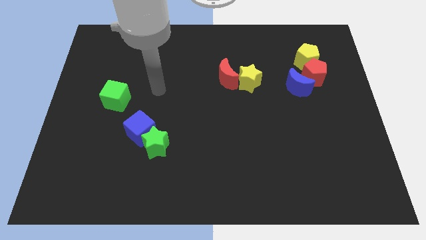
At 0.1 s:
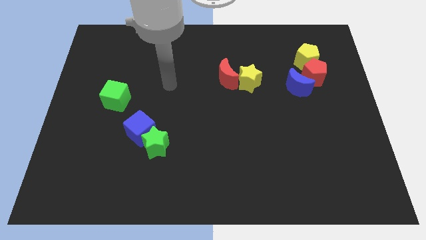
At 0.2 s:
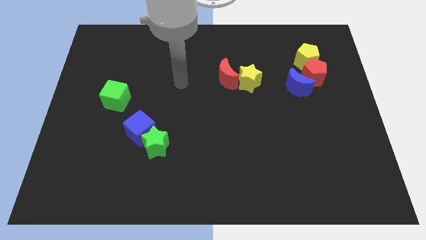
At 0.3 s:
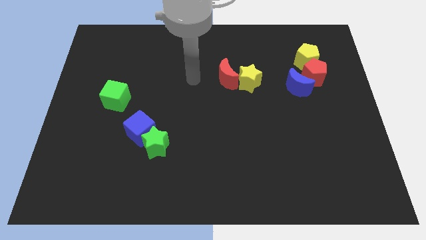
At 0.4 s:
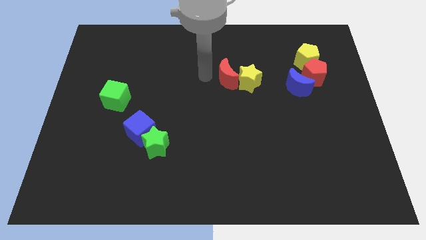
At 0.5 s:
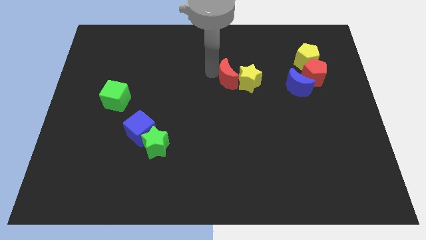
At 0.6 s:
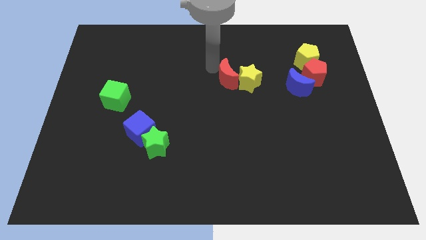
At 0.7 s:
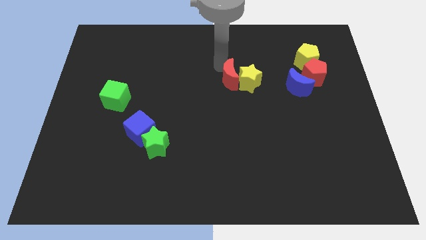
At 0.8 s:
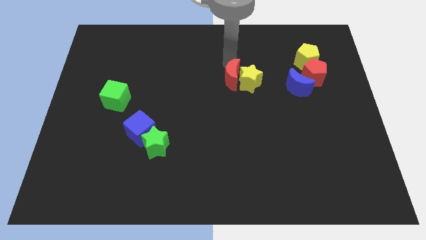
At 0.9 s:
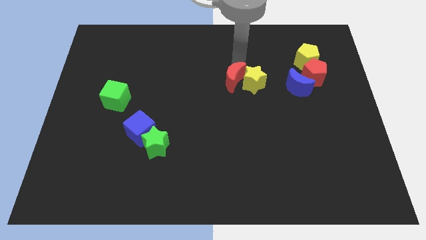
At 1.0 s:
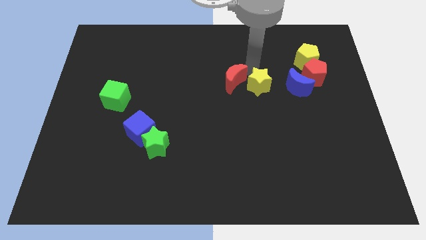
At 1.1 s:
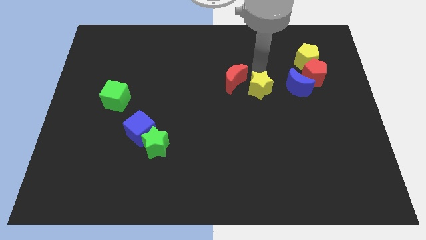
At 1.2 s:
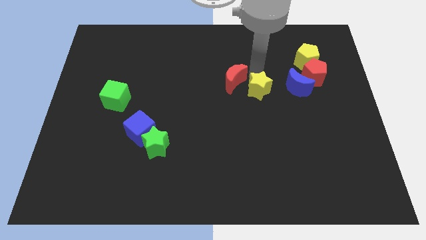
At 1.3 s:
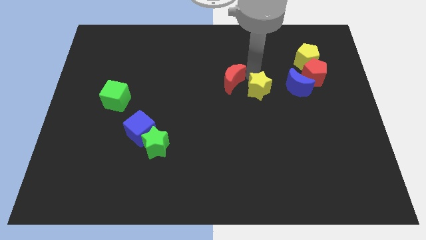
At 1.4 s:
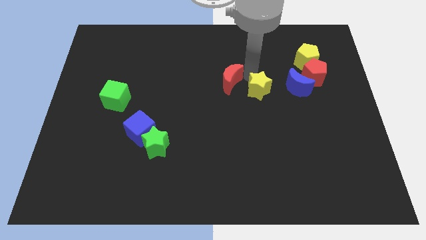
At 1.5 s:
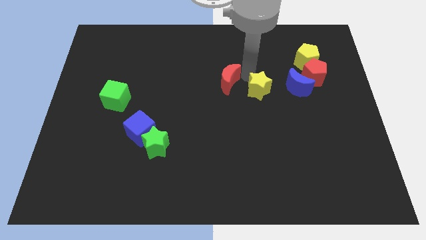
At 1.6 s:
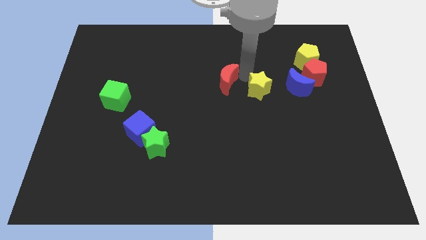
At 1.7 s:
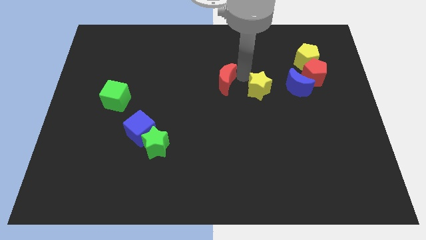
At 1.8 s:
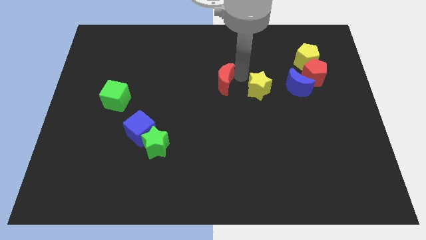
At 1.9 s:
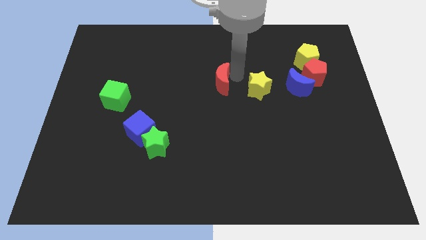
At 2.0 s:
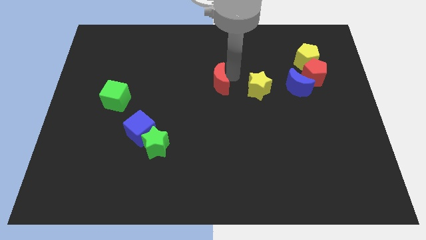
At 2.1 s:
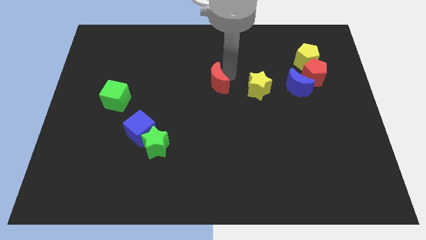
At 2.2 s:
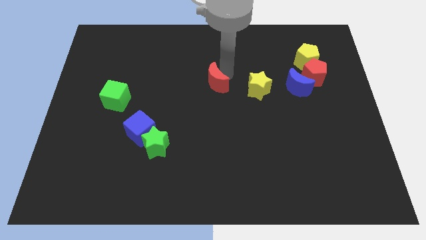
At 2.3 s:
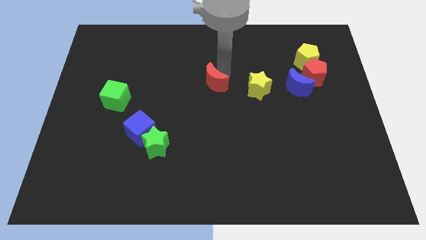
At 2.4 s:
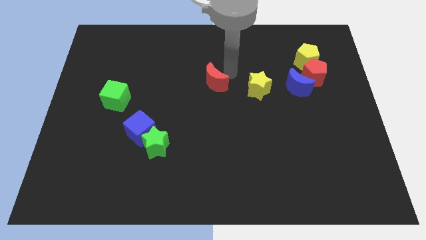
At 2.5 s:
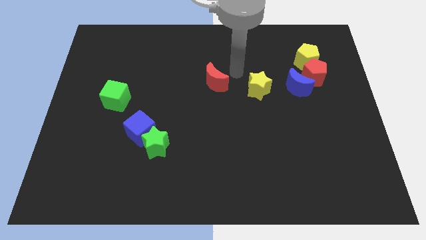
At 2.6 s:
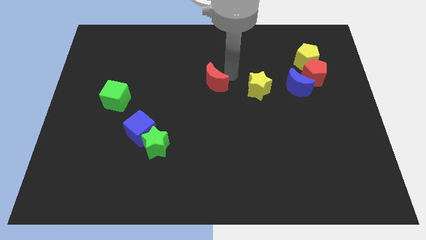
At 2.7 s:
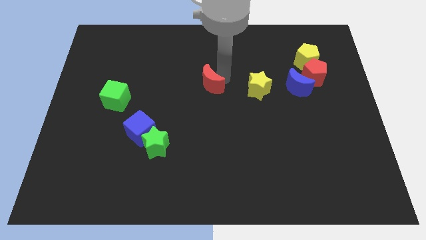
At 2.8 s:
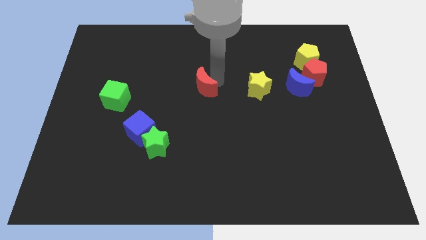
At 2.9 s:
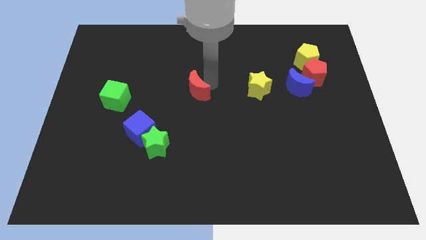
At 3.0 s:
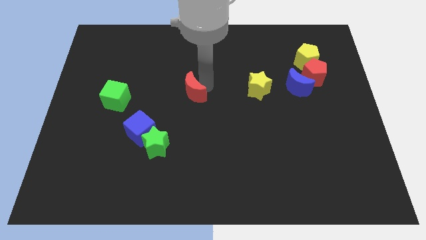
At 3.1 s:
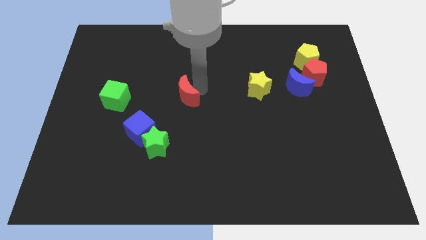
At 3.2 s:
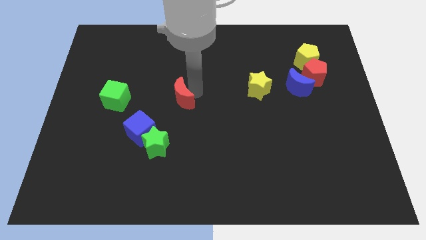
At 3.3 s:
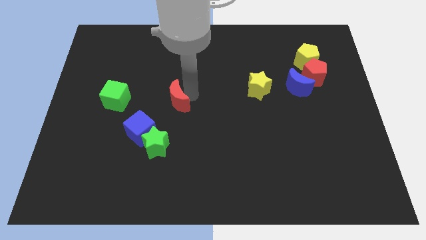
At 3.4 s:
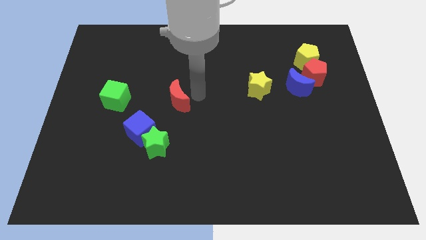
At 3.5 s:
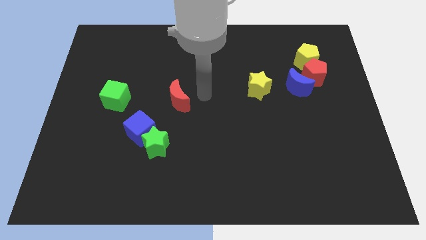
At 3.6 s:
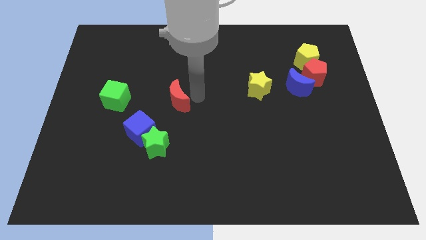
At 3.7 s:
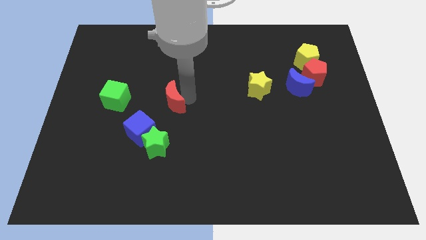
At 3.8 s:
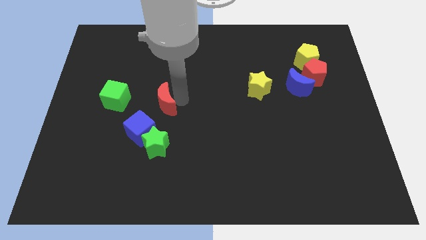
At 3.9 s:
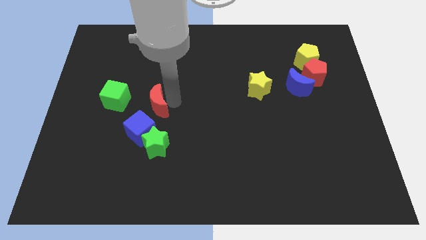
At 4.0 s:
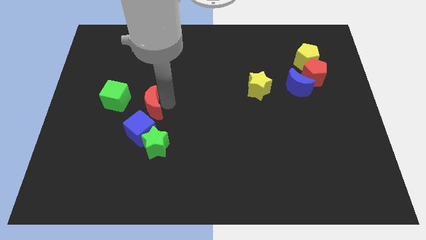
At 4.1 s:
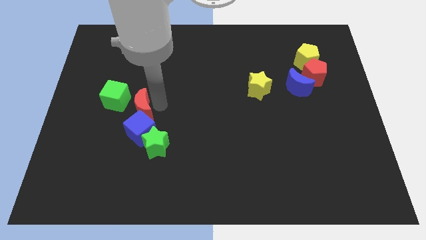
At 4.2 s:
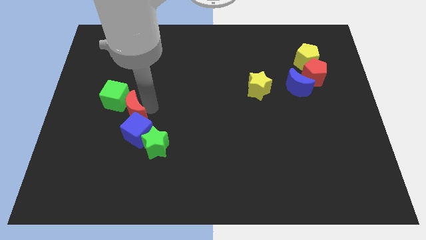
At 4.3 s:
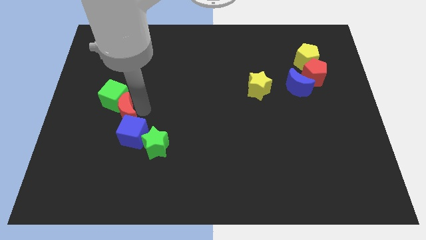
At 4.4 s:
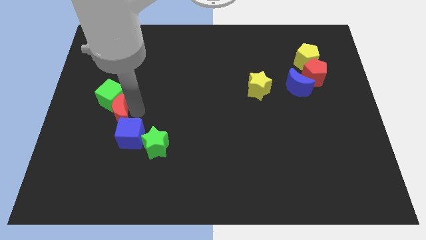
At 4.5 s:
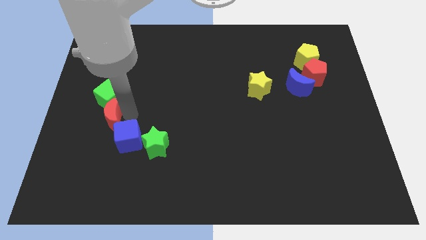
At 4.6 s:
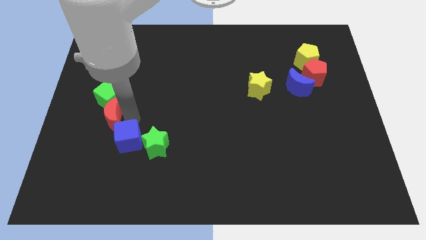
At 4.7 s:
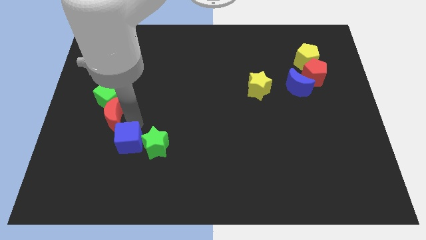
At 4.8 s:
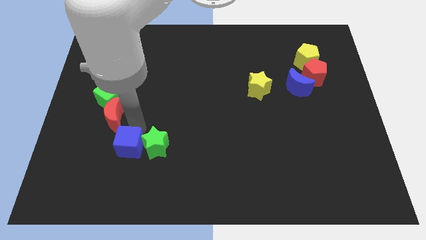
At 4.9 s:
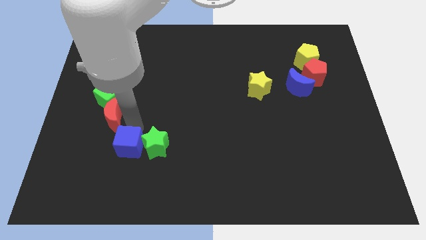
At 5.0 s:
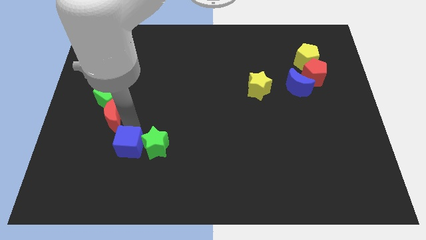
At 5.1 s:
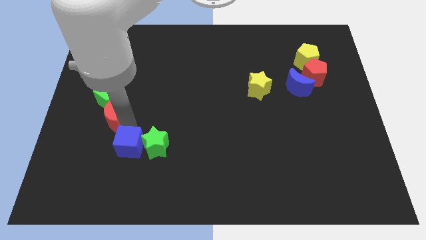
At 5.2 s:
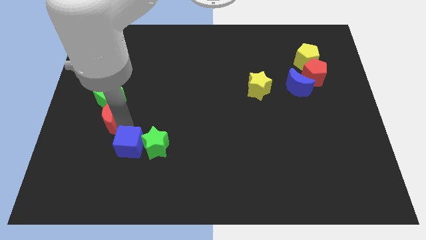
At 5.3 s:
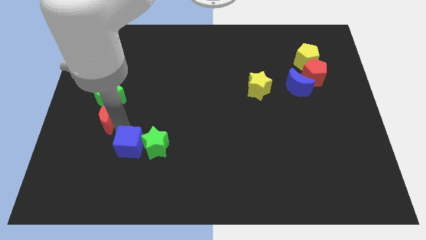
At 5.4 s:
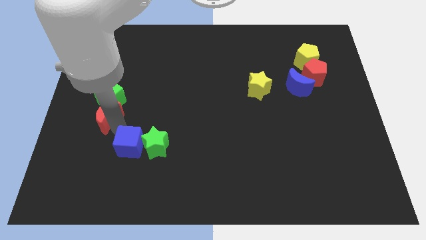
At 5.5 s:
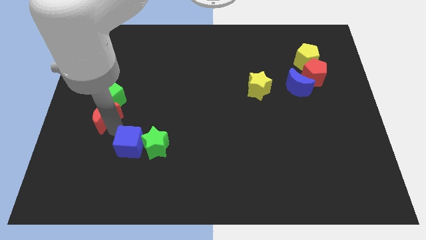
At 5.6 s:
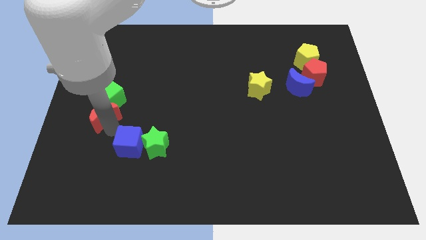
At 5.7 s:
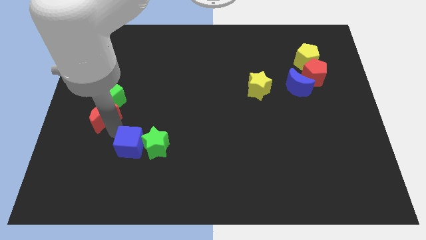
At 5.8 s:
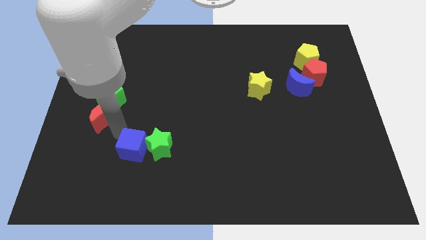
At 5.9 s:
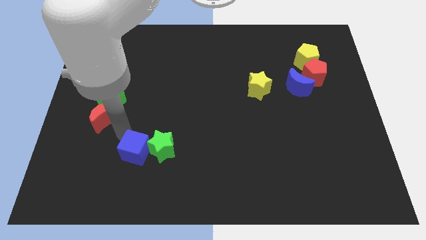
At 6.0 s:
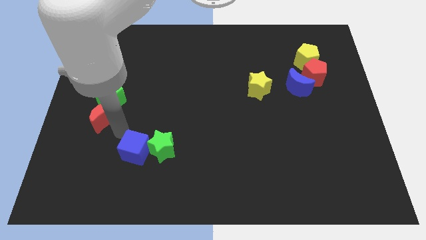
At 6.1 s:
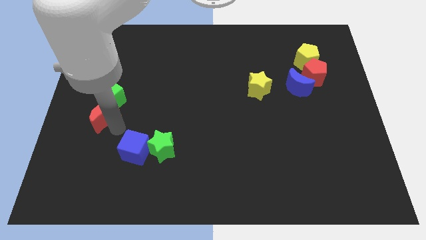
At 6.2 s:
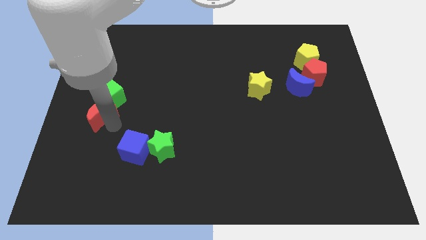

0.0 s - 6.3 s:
push the red moon to the left side
